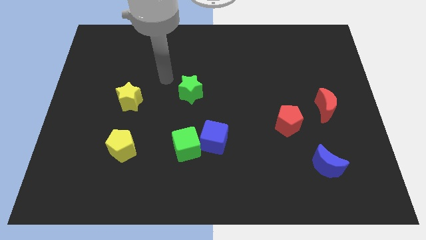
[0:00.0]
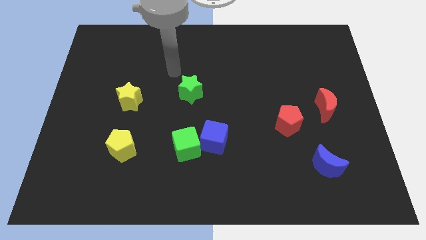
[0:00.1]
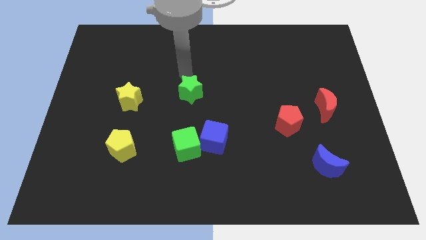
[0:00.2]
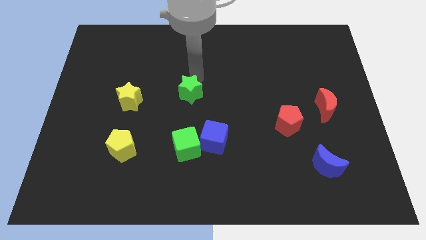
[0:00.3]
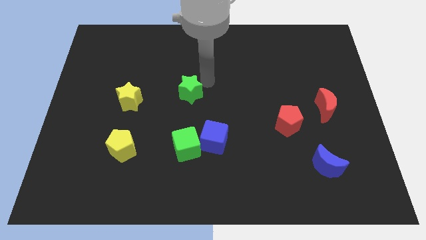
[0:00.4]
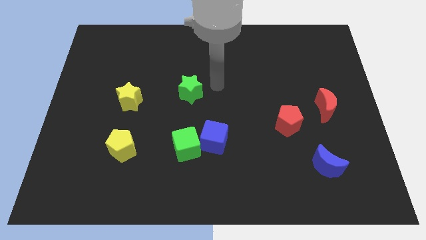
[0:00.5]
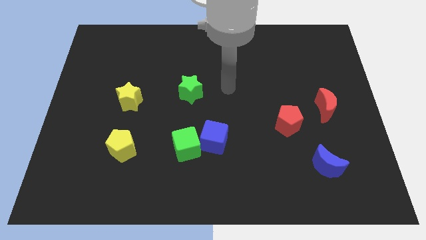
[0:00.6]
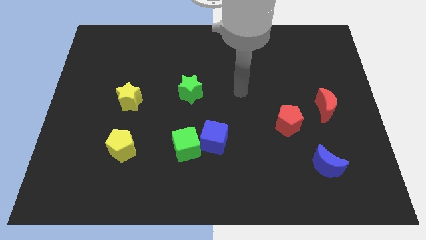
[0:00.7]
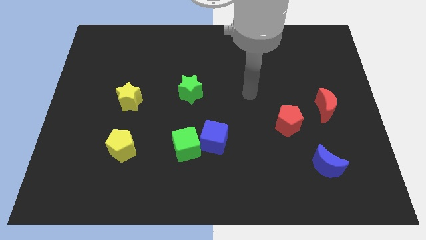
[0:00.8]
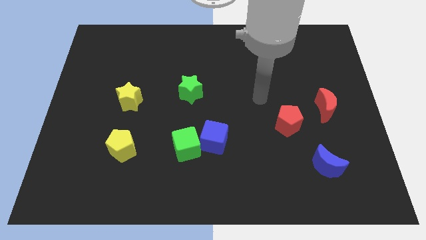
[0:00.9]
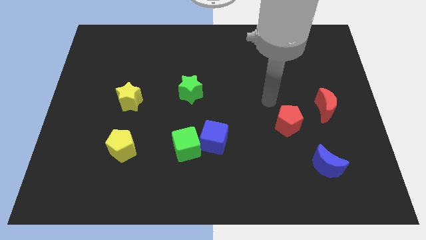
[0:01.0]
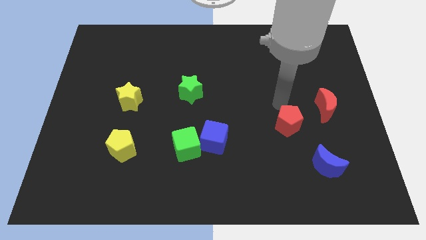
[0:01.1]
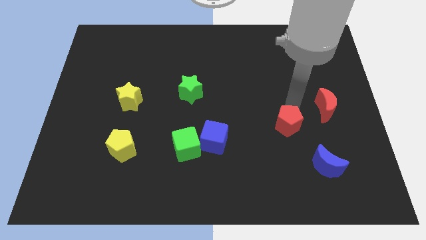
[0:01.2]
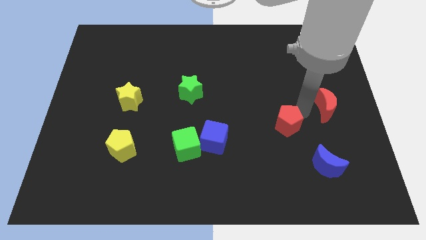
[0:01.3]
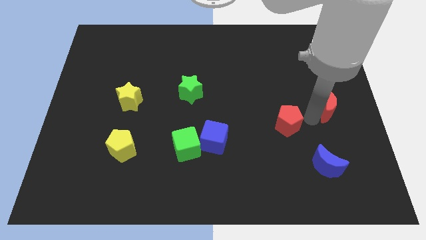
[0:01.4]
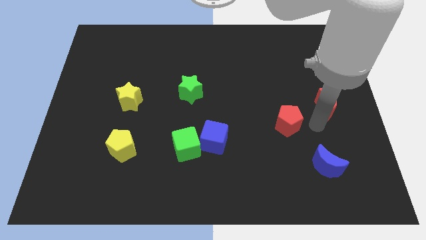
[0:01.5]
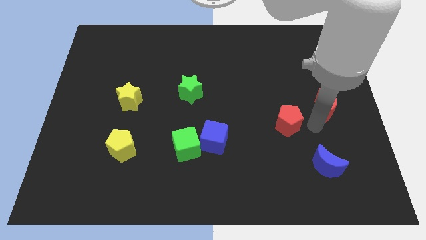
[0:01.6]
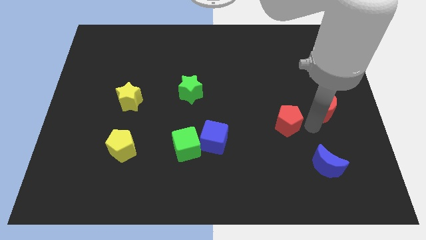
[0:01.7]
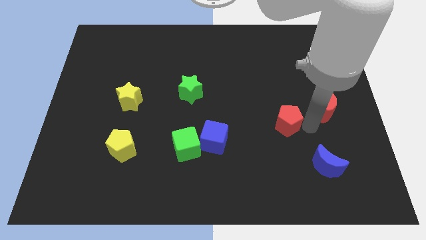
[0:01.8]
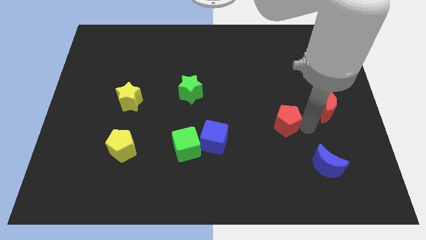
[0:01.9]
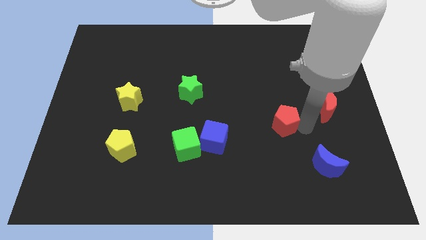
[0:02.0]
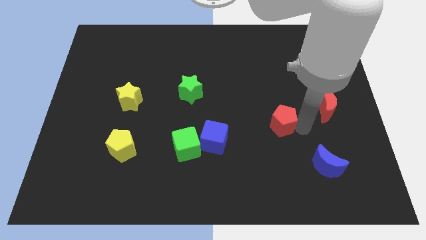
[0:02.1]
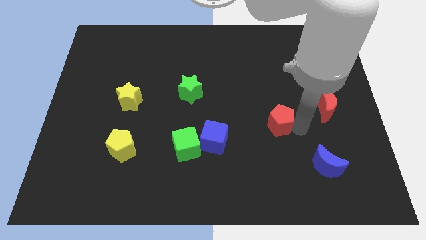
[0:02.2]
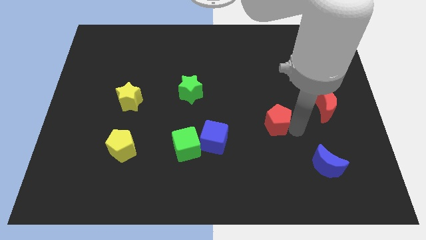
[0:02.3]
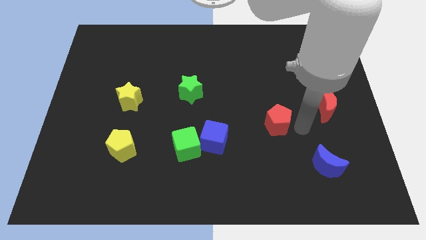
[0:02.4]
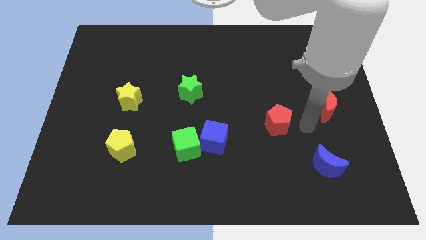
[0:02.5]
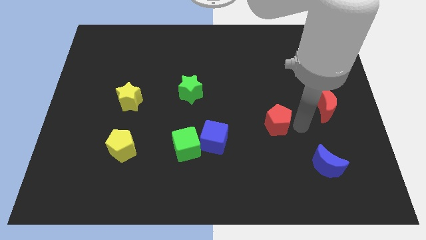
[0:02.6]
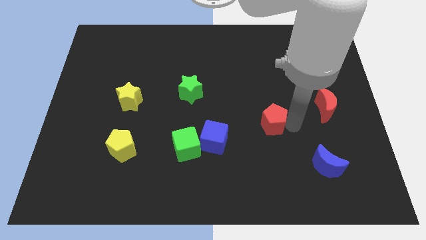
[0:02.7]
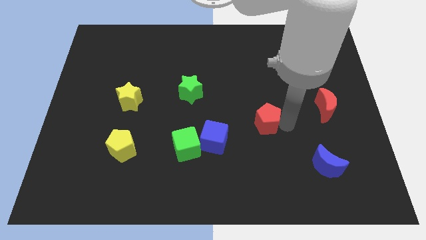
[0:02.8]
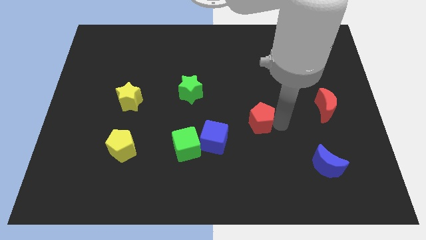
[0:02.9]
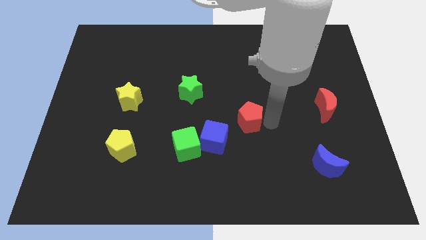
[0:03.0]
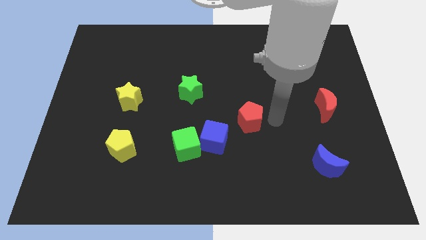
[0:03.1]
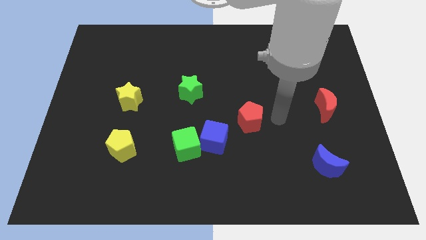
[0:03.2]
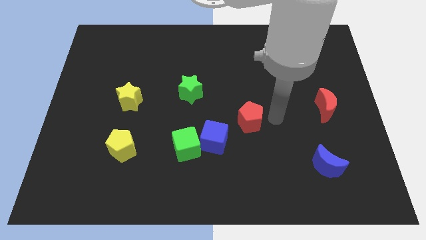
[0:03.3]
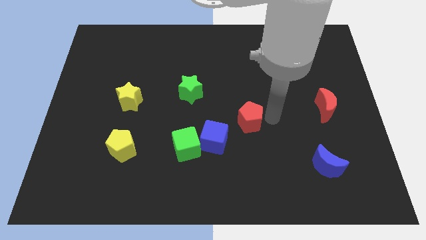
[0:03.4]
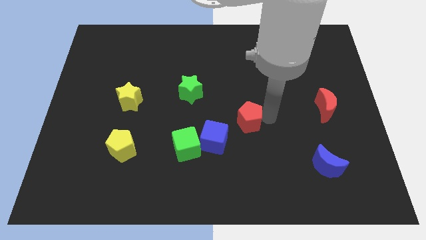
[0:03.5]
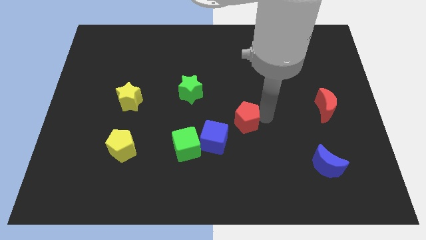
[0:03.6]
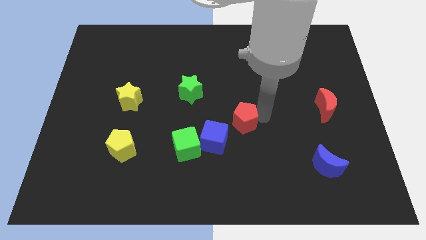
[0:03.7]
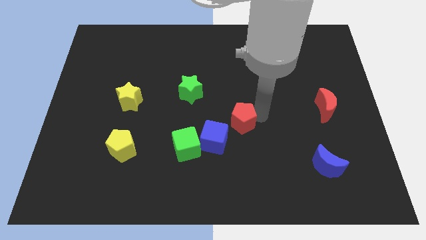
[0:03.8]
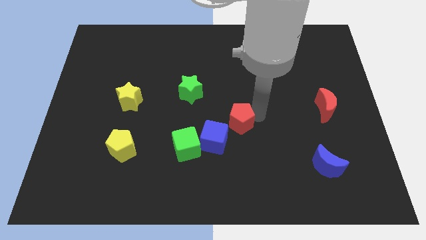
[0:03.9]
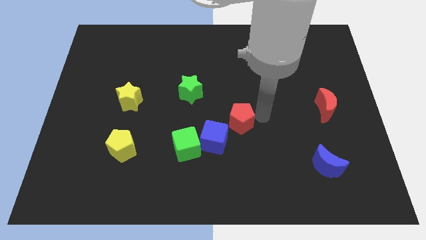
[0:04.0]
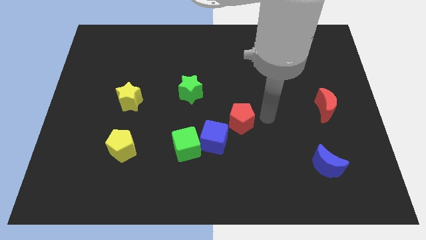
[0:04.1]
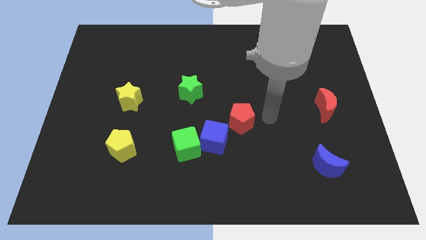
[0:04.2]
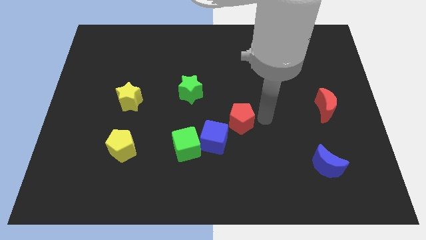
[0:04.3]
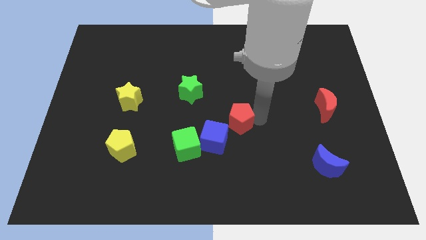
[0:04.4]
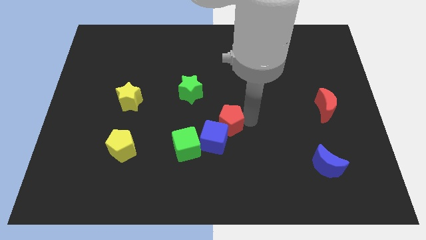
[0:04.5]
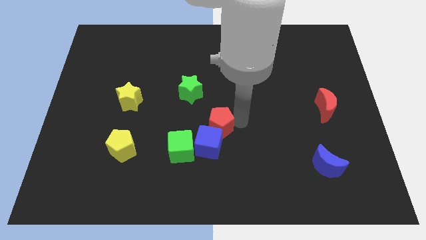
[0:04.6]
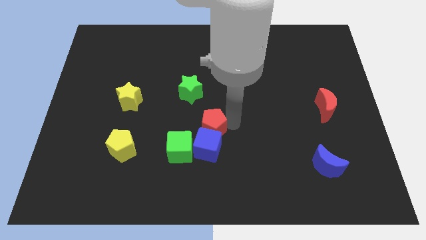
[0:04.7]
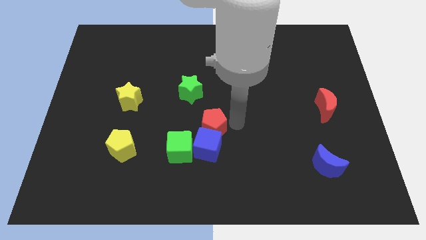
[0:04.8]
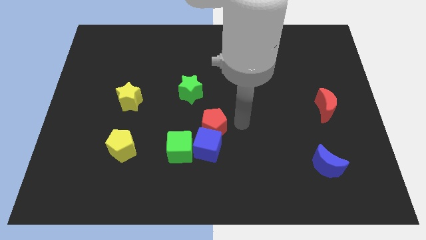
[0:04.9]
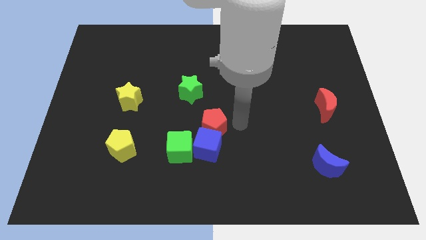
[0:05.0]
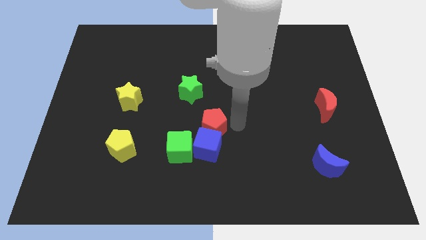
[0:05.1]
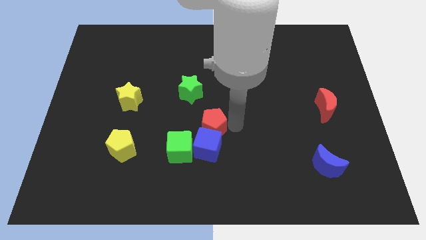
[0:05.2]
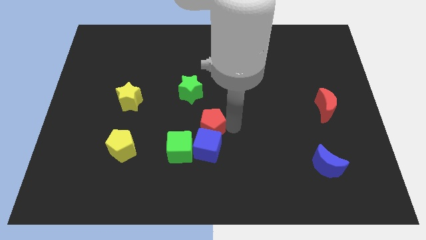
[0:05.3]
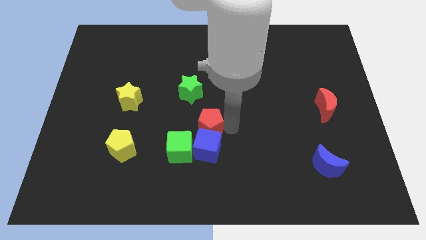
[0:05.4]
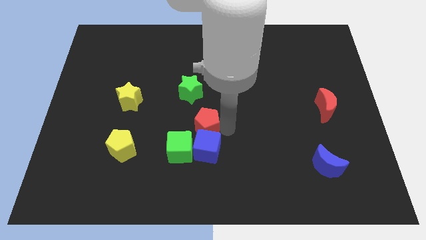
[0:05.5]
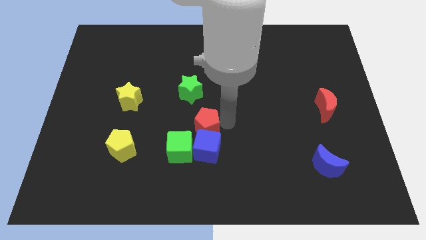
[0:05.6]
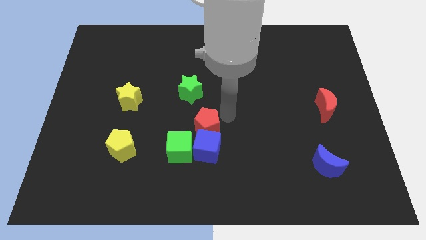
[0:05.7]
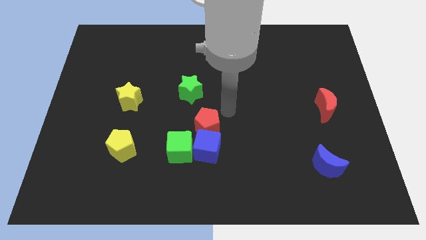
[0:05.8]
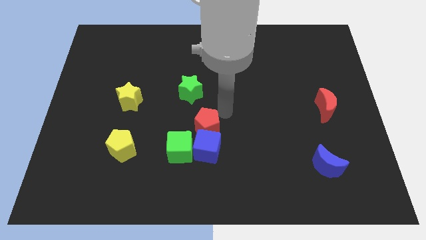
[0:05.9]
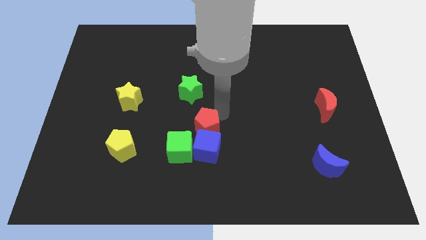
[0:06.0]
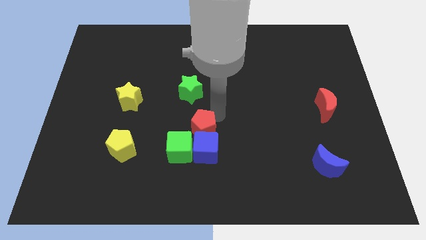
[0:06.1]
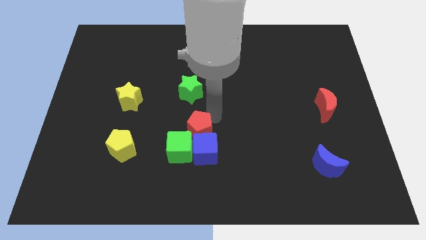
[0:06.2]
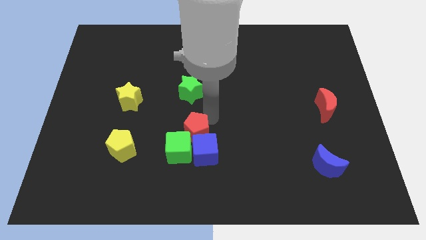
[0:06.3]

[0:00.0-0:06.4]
push the red pentagon next to the green cube
